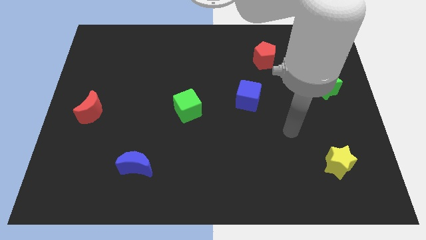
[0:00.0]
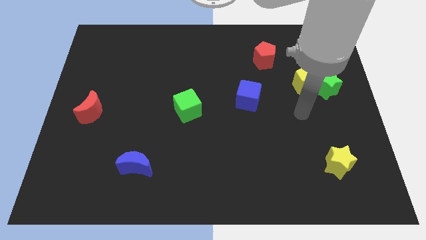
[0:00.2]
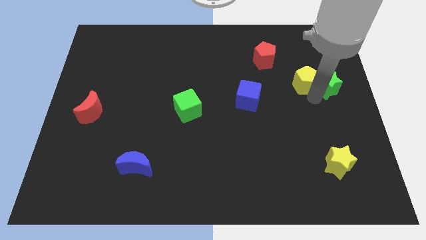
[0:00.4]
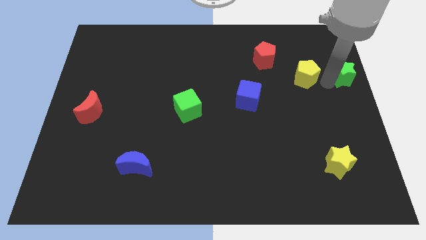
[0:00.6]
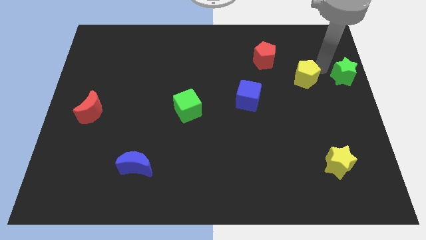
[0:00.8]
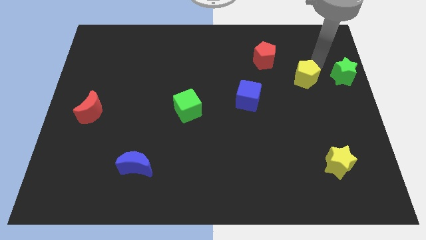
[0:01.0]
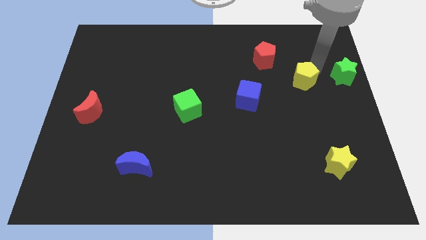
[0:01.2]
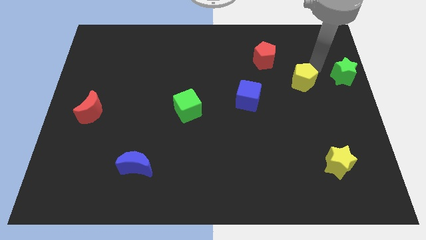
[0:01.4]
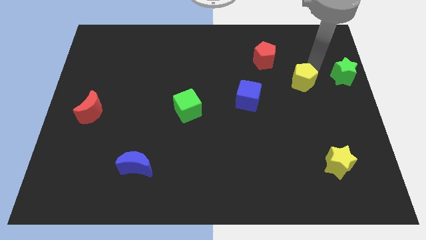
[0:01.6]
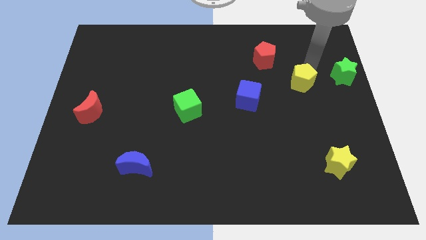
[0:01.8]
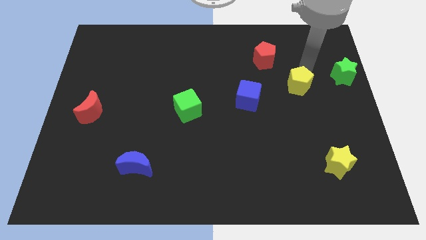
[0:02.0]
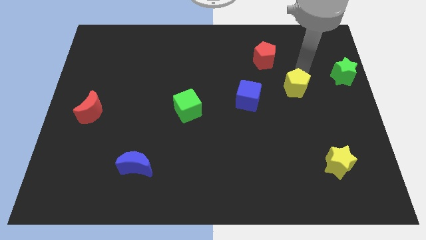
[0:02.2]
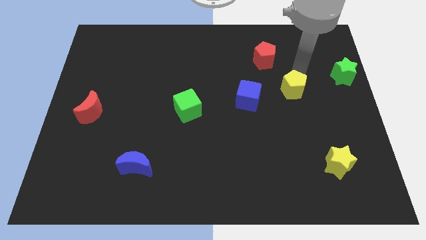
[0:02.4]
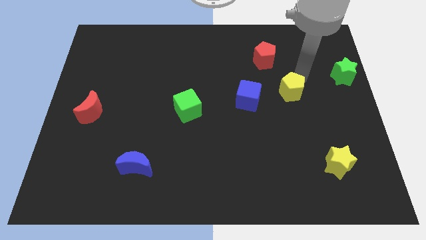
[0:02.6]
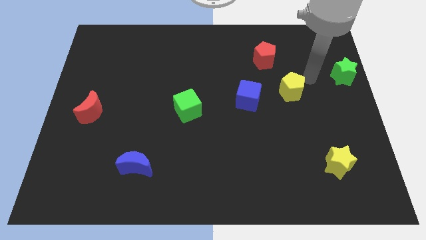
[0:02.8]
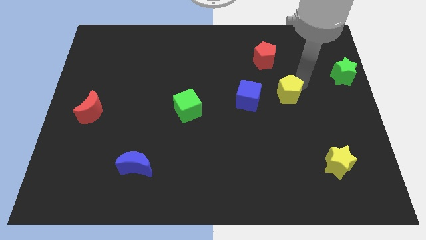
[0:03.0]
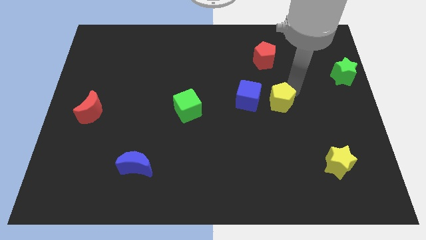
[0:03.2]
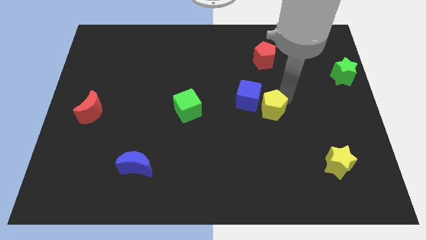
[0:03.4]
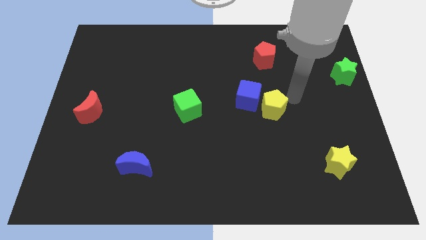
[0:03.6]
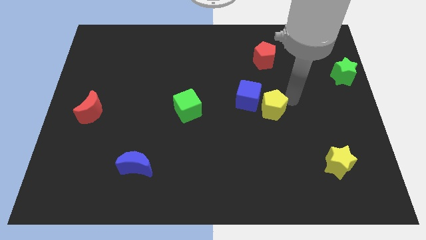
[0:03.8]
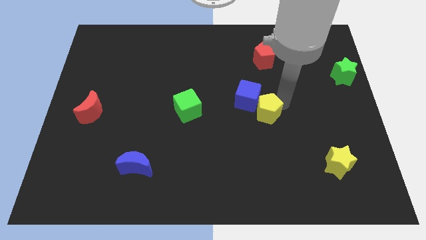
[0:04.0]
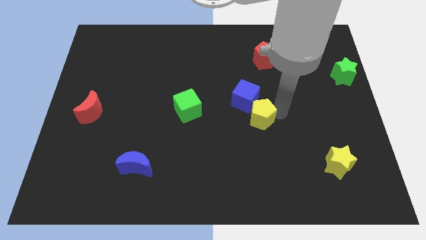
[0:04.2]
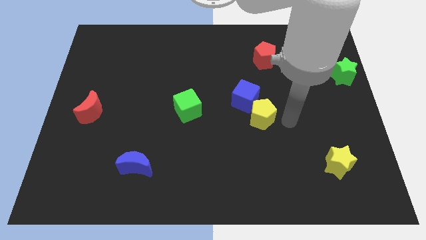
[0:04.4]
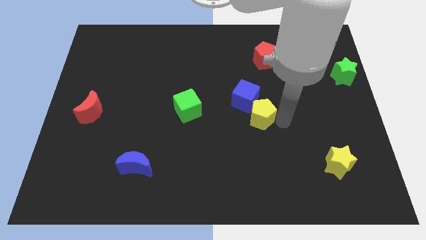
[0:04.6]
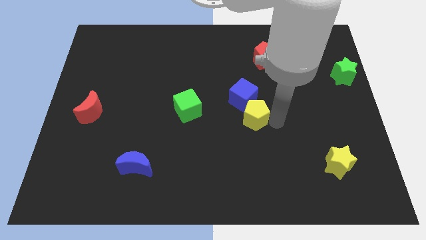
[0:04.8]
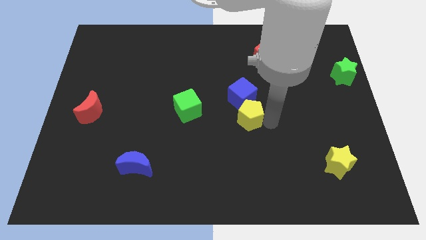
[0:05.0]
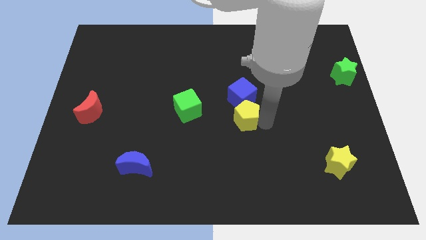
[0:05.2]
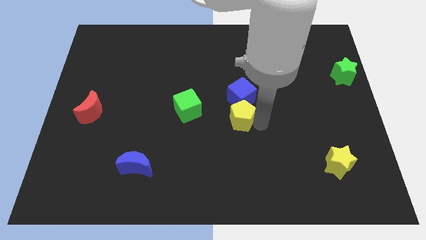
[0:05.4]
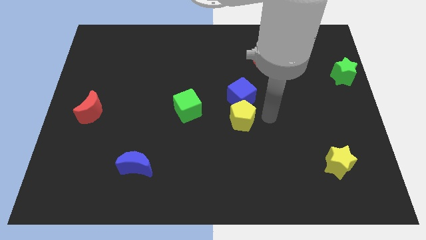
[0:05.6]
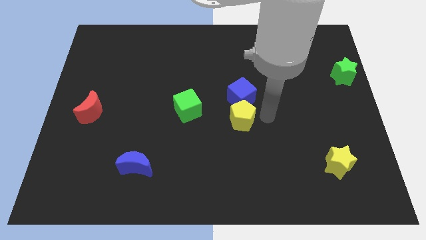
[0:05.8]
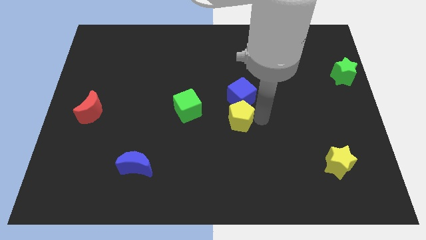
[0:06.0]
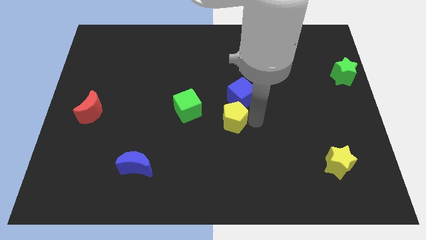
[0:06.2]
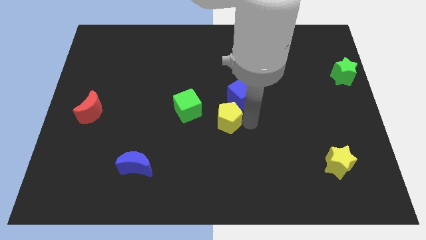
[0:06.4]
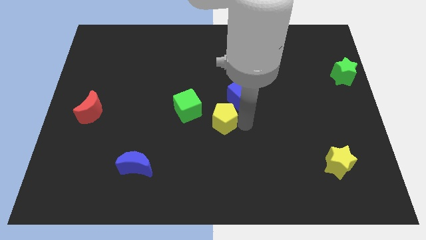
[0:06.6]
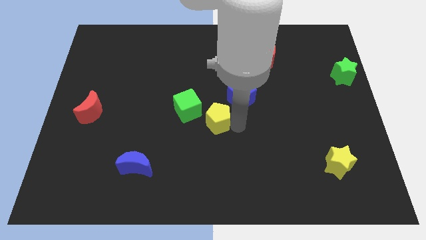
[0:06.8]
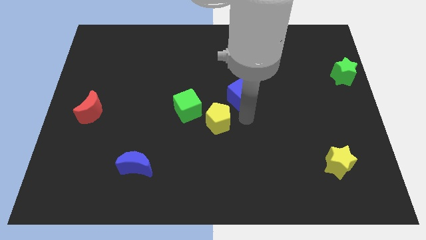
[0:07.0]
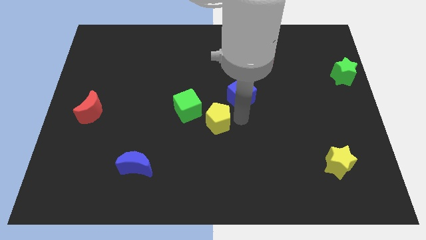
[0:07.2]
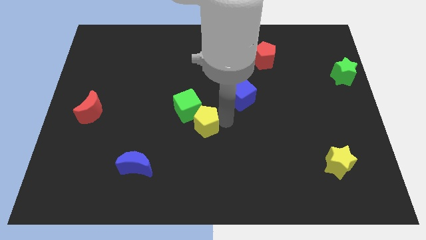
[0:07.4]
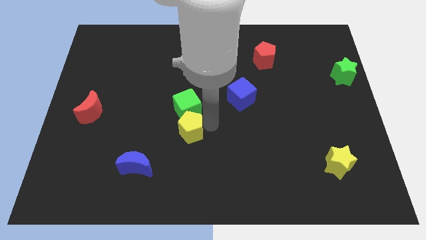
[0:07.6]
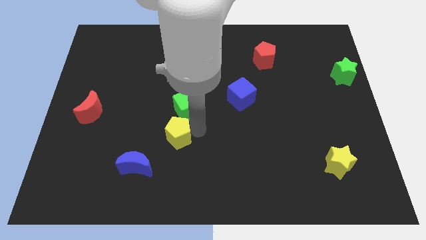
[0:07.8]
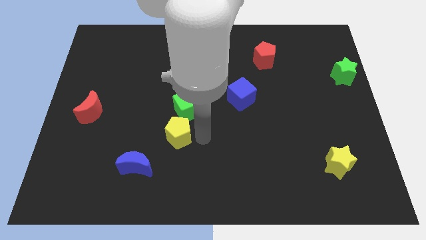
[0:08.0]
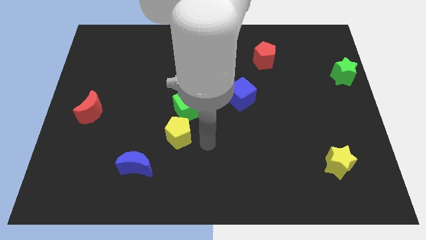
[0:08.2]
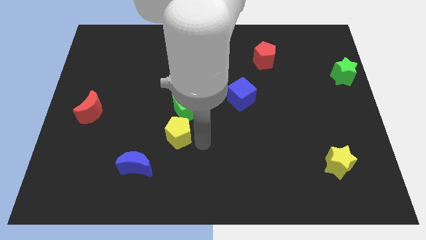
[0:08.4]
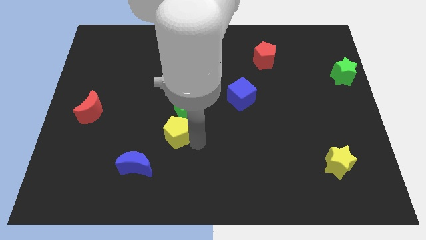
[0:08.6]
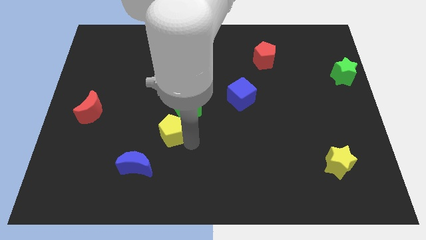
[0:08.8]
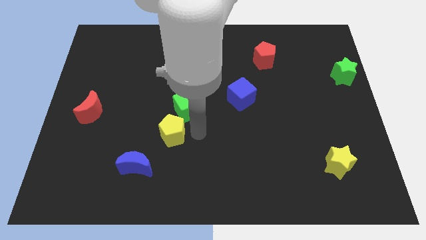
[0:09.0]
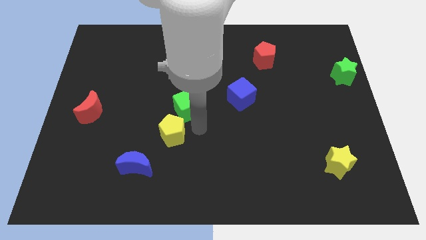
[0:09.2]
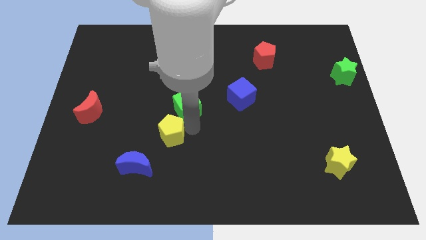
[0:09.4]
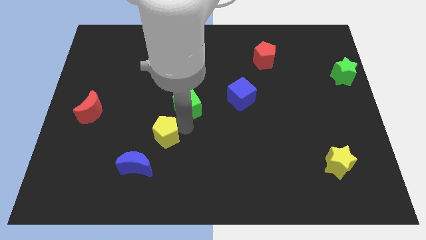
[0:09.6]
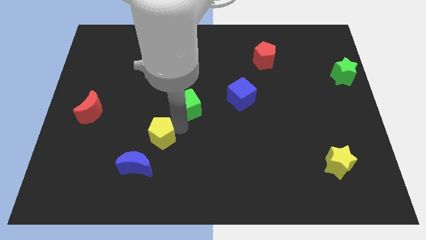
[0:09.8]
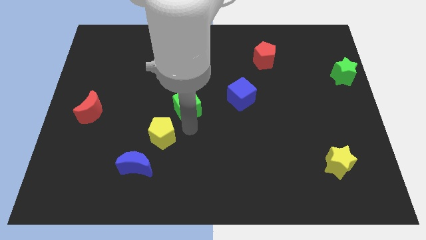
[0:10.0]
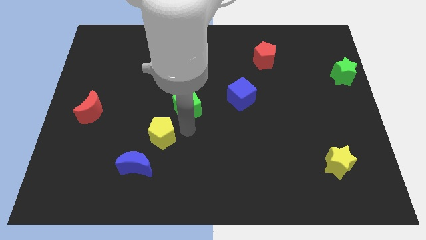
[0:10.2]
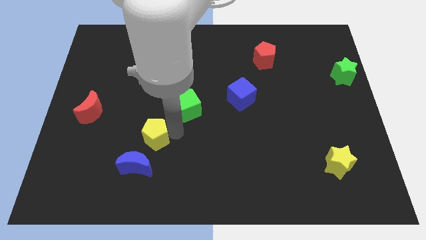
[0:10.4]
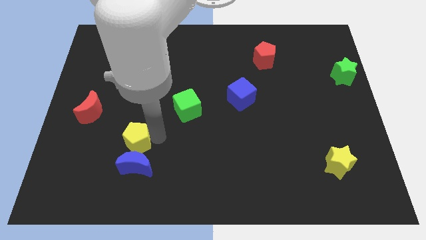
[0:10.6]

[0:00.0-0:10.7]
slide the yellow pentagon diagonally up and to the left of the blue moon

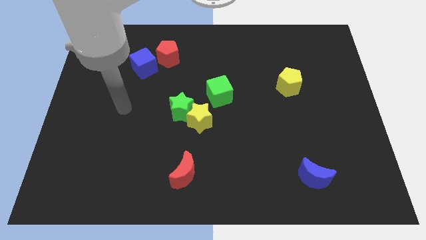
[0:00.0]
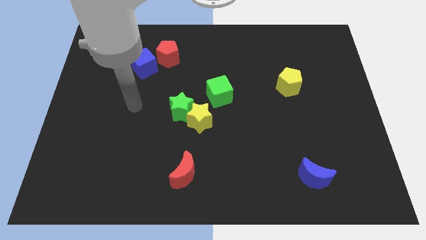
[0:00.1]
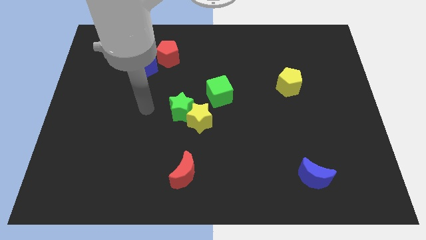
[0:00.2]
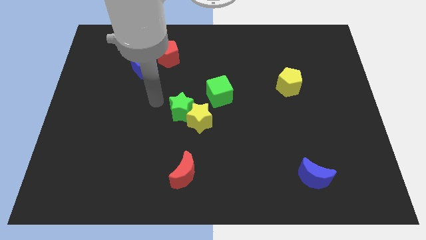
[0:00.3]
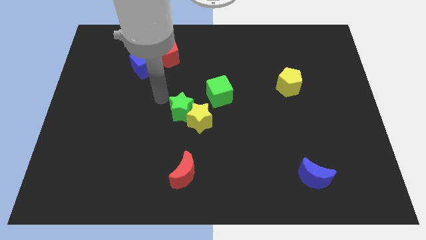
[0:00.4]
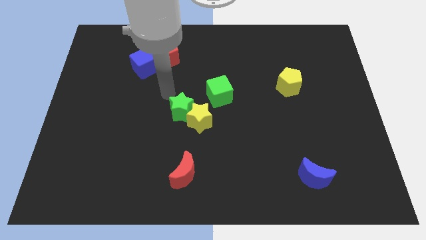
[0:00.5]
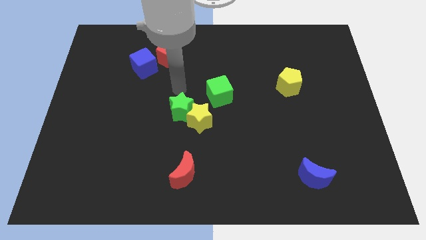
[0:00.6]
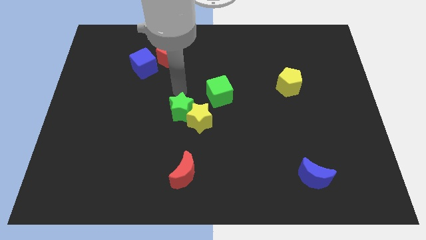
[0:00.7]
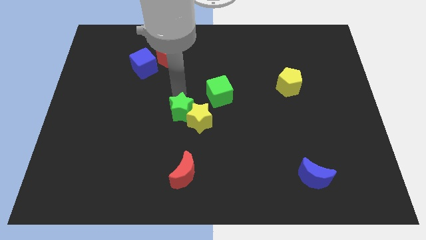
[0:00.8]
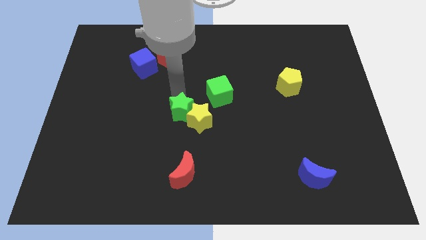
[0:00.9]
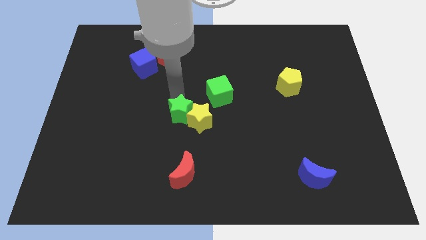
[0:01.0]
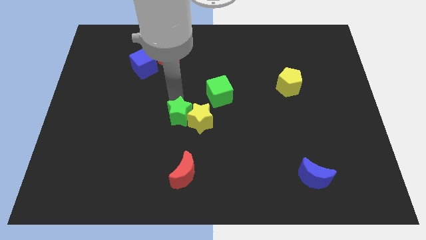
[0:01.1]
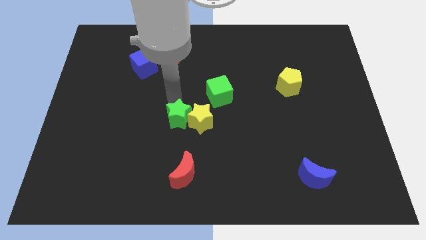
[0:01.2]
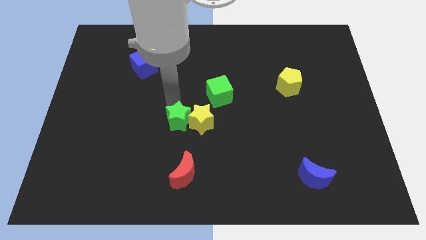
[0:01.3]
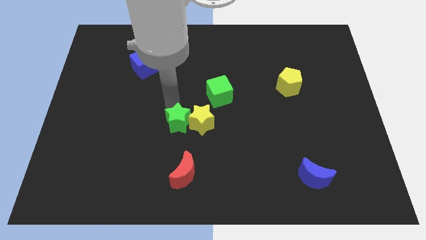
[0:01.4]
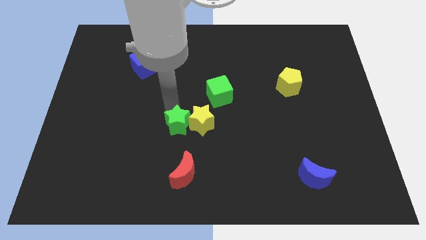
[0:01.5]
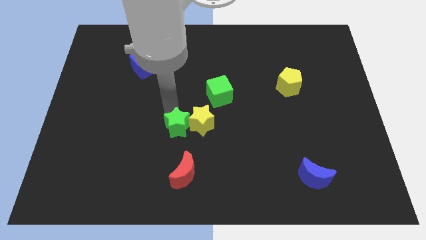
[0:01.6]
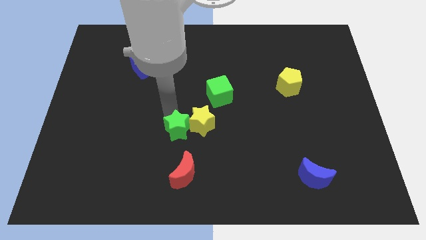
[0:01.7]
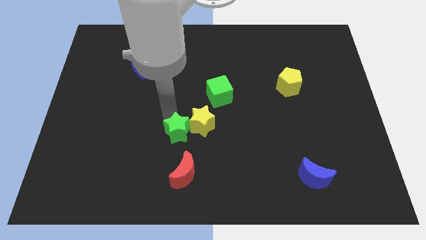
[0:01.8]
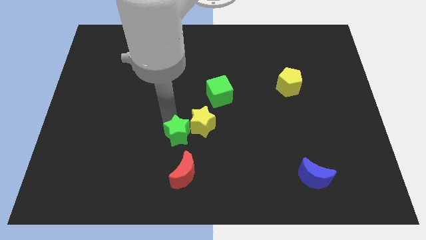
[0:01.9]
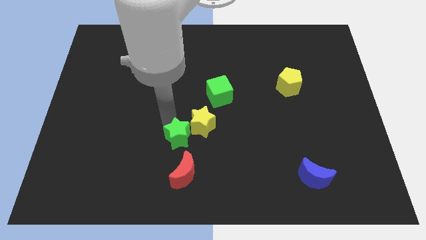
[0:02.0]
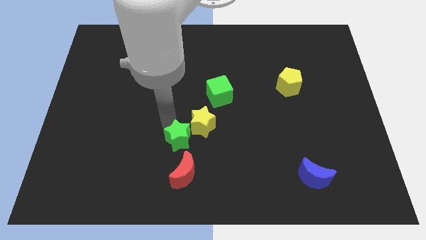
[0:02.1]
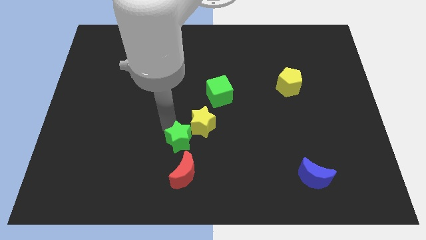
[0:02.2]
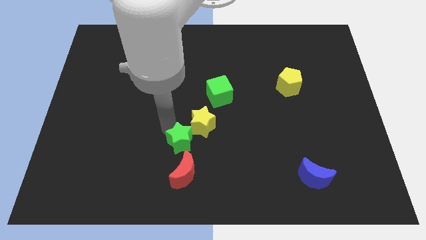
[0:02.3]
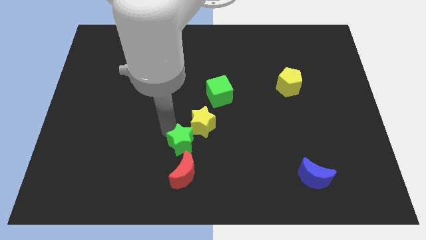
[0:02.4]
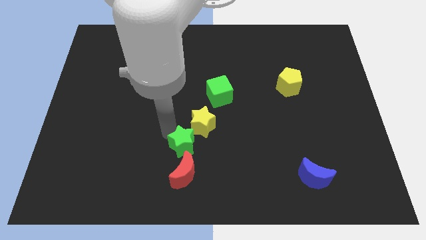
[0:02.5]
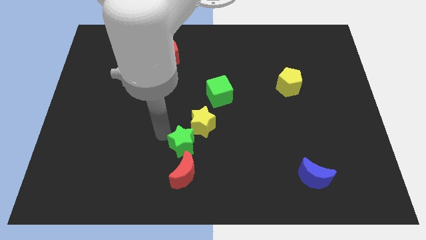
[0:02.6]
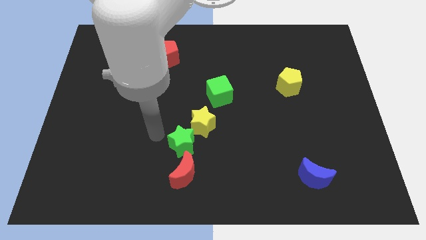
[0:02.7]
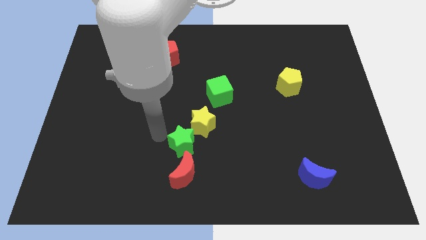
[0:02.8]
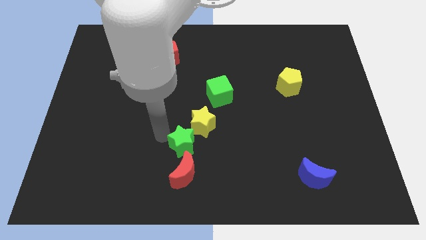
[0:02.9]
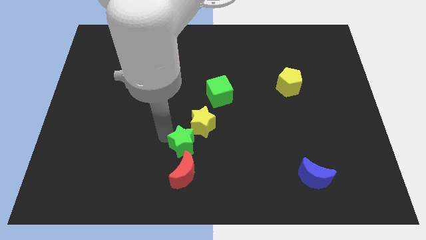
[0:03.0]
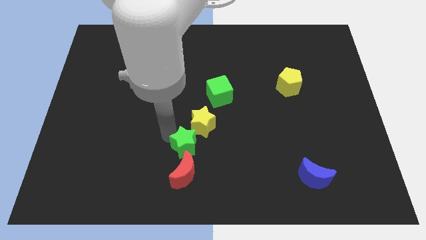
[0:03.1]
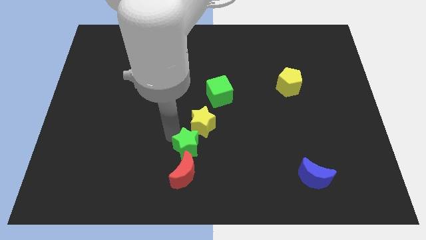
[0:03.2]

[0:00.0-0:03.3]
move the green star to the top right of the red moon
